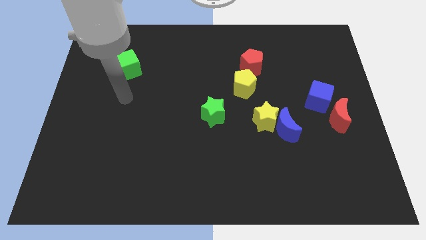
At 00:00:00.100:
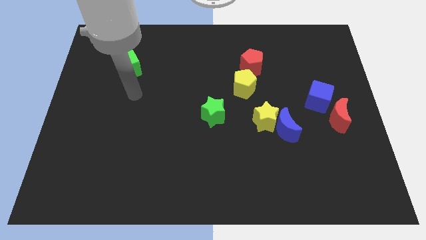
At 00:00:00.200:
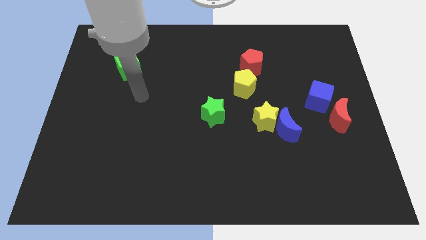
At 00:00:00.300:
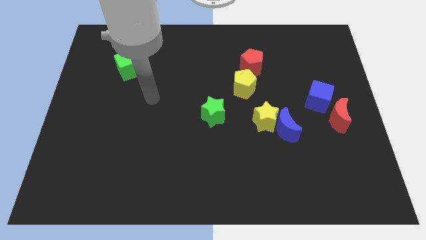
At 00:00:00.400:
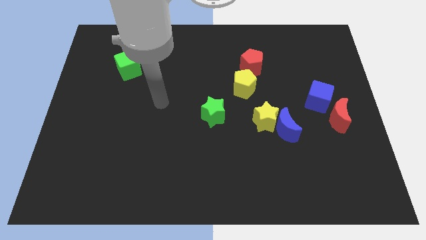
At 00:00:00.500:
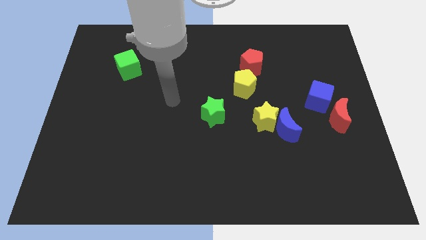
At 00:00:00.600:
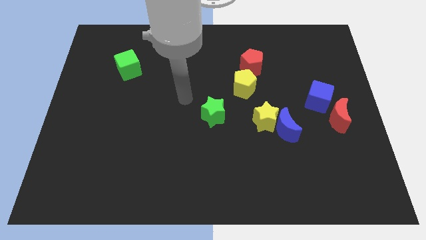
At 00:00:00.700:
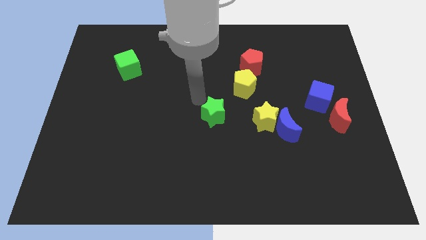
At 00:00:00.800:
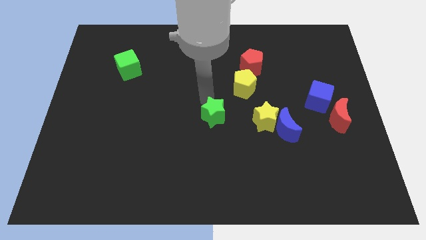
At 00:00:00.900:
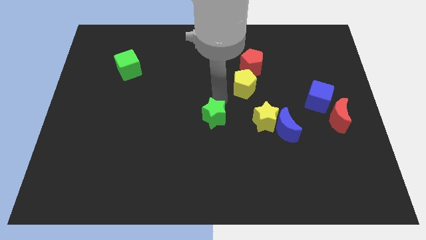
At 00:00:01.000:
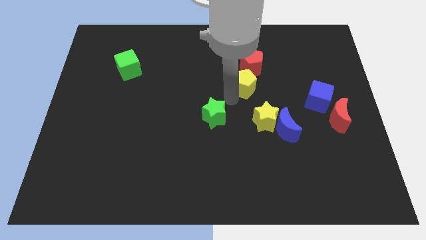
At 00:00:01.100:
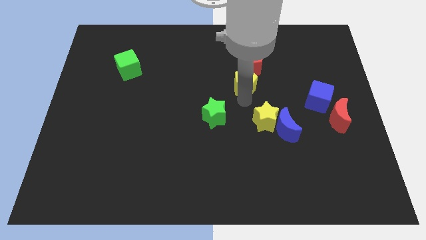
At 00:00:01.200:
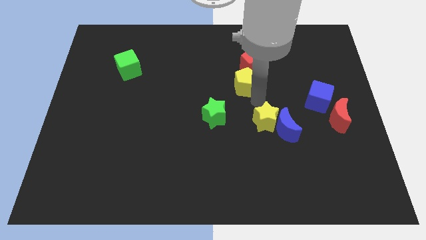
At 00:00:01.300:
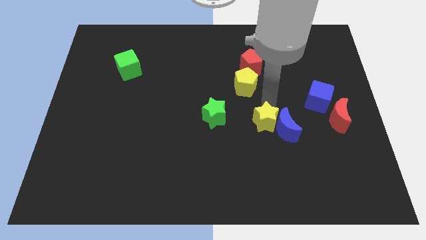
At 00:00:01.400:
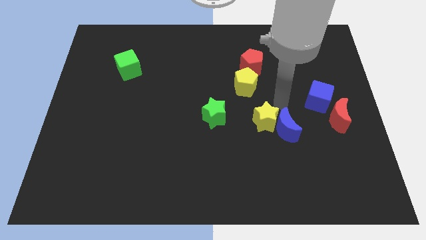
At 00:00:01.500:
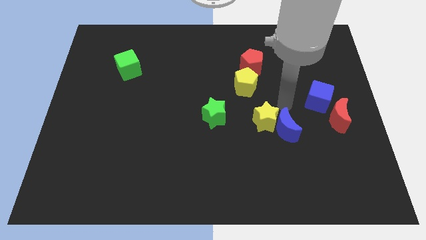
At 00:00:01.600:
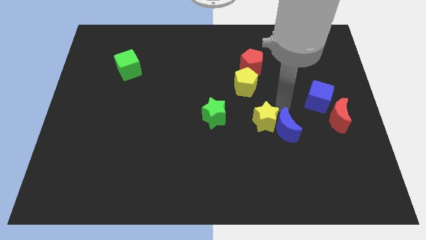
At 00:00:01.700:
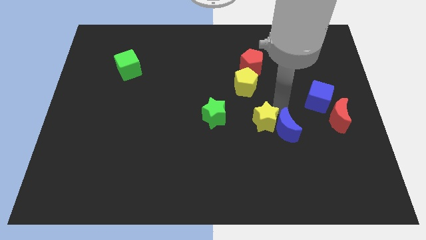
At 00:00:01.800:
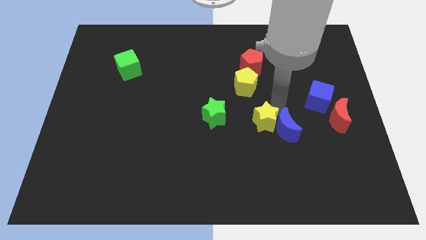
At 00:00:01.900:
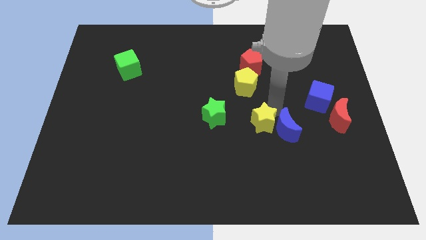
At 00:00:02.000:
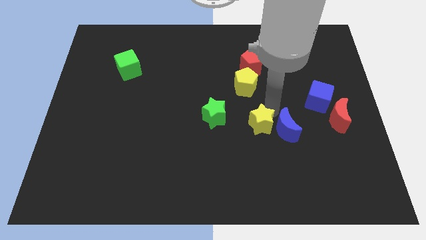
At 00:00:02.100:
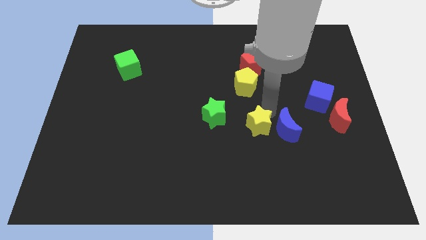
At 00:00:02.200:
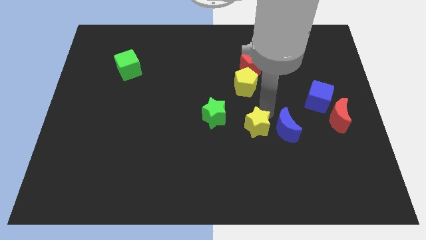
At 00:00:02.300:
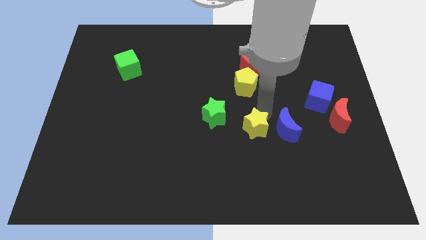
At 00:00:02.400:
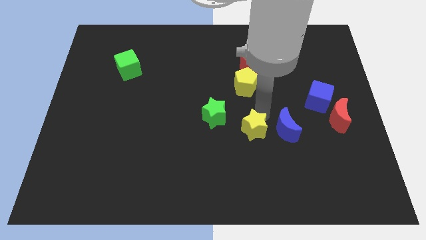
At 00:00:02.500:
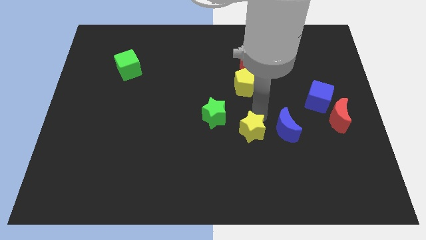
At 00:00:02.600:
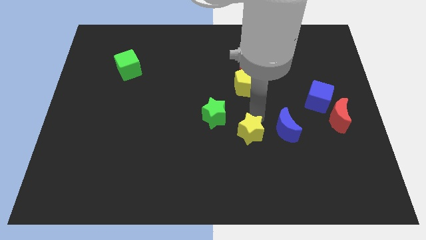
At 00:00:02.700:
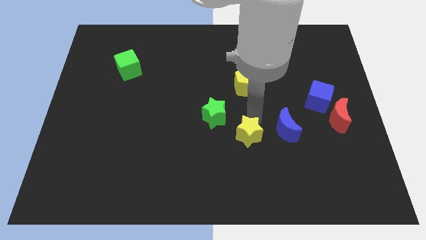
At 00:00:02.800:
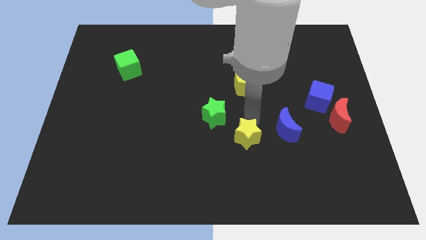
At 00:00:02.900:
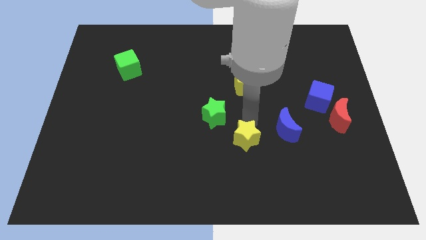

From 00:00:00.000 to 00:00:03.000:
slightly push the yellow star downwards and left diagonally

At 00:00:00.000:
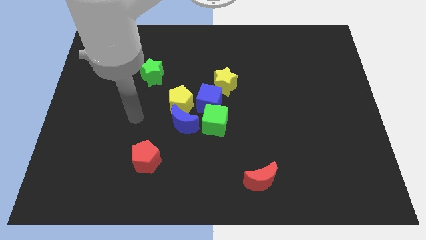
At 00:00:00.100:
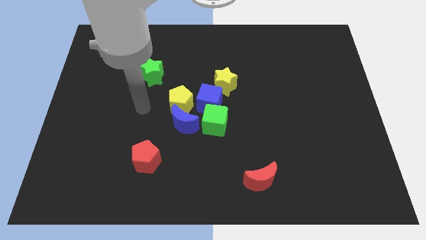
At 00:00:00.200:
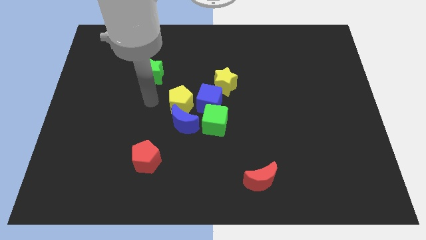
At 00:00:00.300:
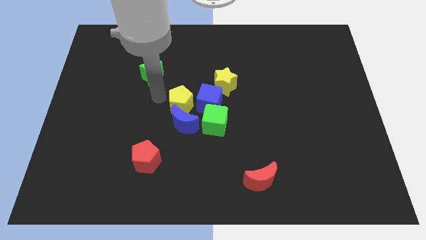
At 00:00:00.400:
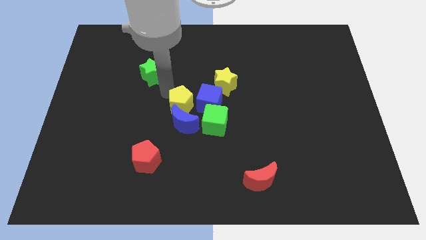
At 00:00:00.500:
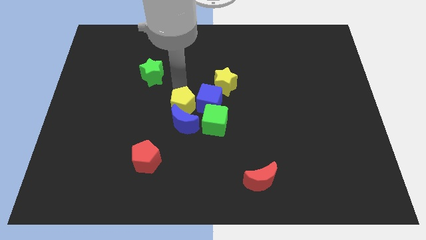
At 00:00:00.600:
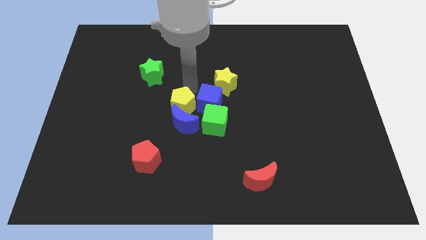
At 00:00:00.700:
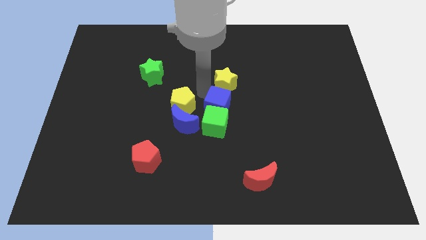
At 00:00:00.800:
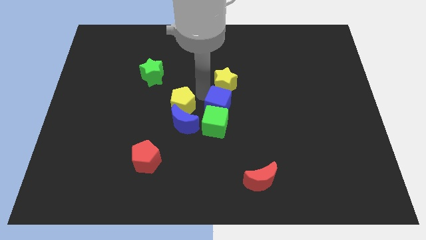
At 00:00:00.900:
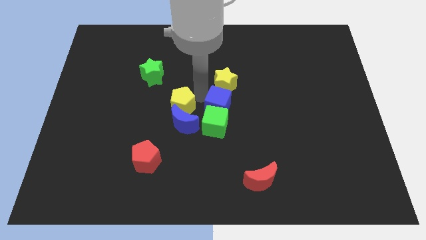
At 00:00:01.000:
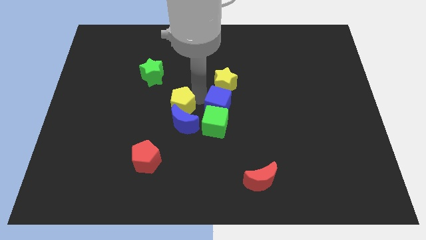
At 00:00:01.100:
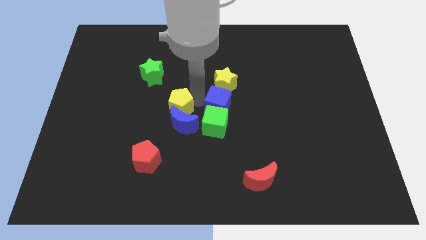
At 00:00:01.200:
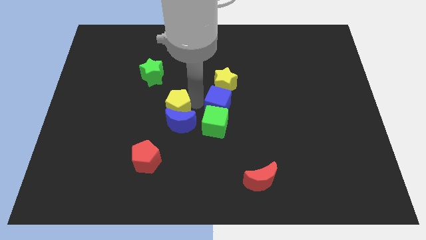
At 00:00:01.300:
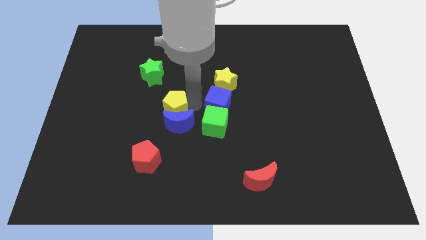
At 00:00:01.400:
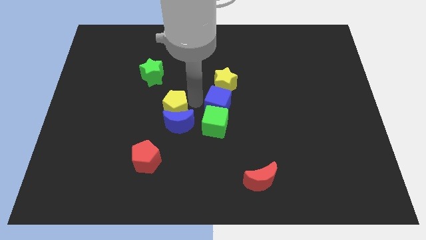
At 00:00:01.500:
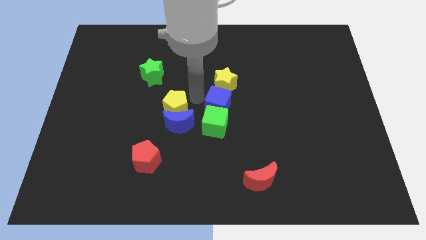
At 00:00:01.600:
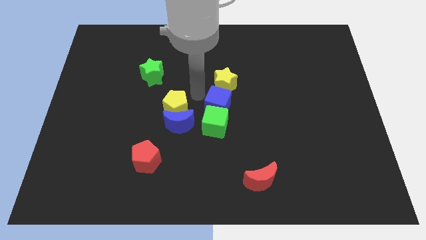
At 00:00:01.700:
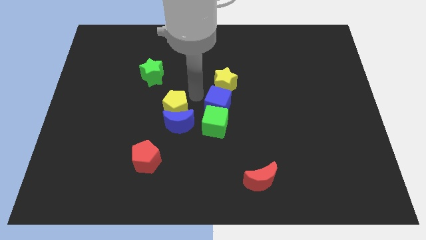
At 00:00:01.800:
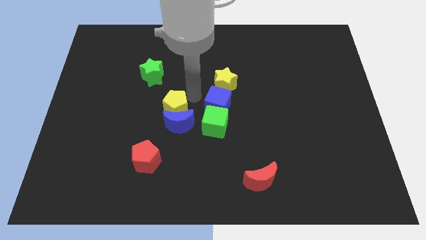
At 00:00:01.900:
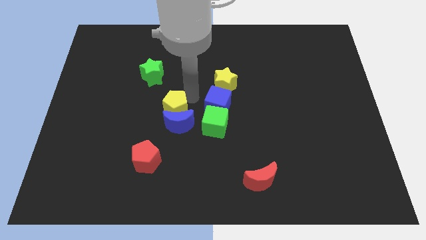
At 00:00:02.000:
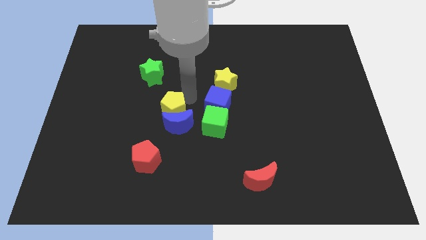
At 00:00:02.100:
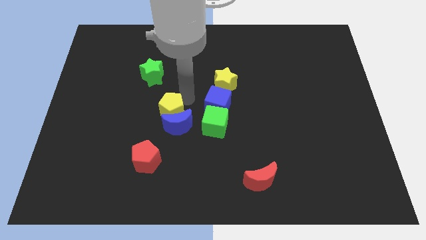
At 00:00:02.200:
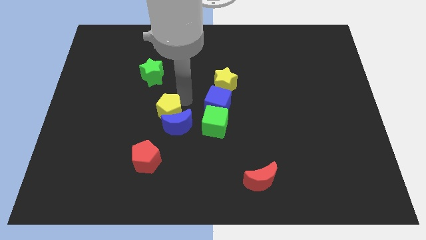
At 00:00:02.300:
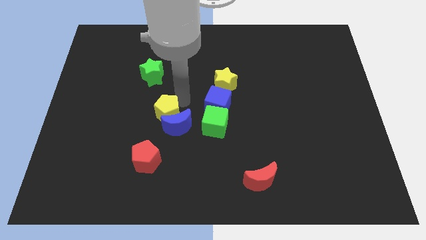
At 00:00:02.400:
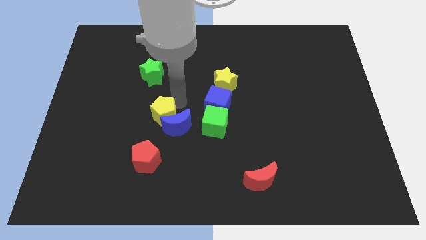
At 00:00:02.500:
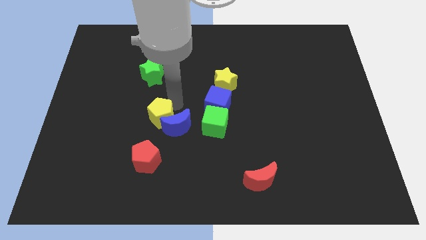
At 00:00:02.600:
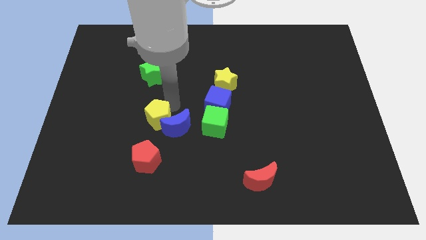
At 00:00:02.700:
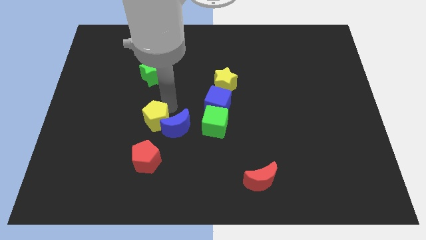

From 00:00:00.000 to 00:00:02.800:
push the yellow pentagon downwards and to the left somewhat

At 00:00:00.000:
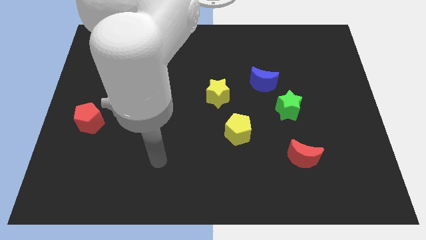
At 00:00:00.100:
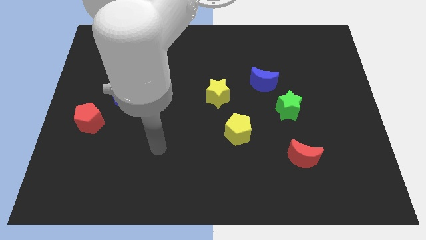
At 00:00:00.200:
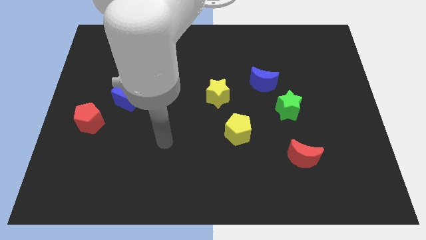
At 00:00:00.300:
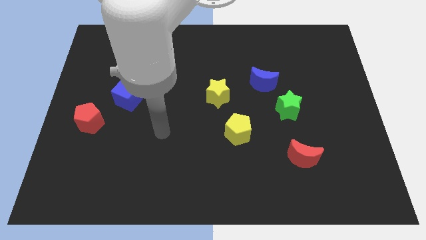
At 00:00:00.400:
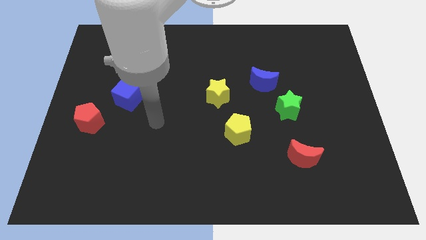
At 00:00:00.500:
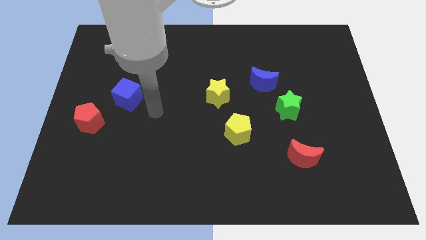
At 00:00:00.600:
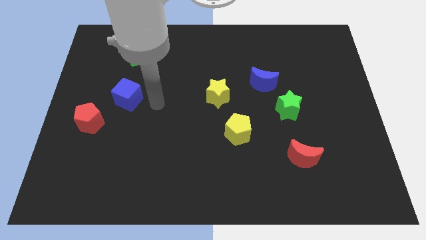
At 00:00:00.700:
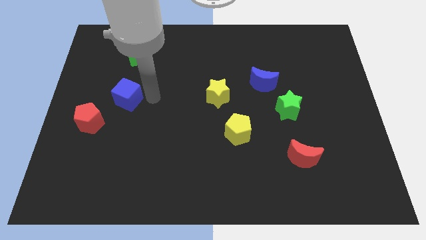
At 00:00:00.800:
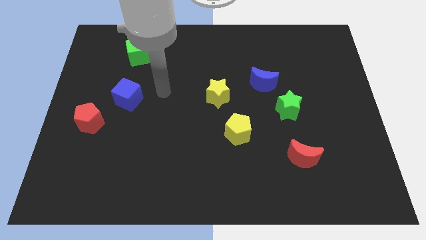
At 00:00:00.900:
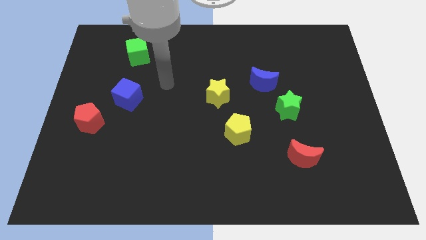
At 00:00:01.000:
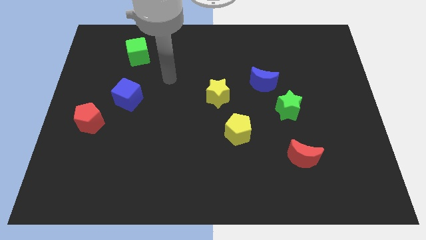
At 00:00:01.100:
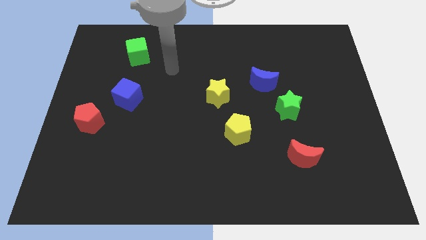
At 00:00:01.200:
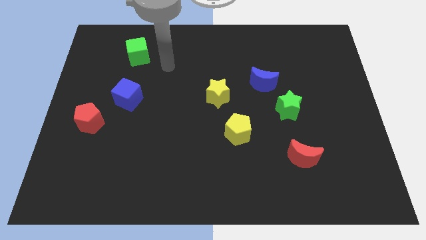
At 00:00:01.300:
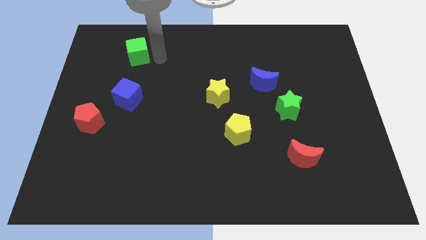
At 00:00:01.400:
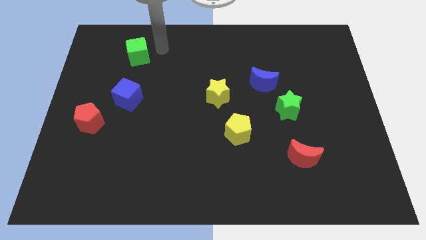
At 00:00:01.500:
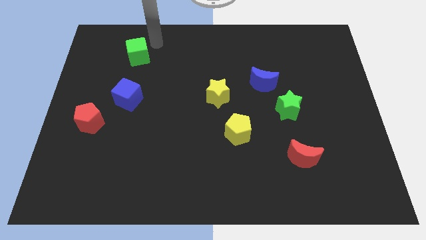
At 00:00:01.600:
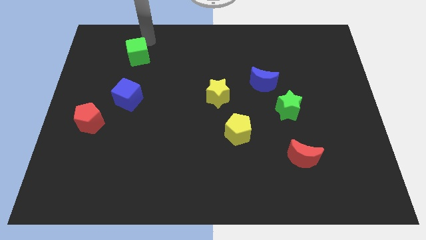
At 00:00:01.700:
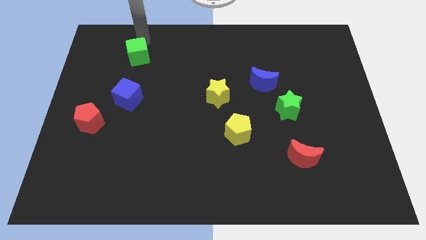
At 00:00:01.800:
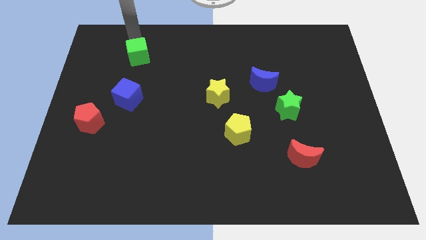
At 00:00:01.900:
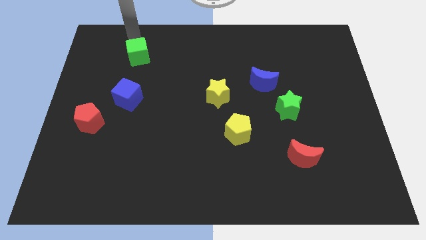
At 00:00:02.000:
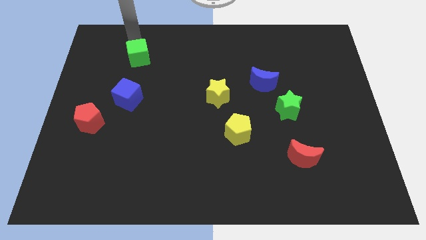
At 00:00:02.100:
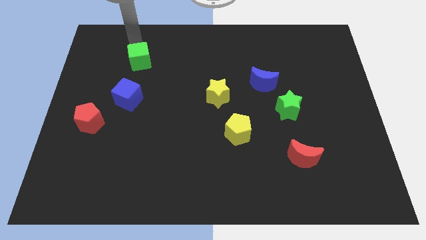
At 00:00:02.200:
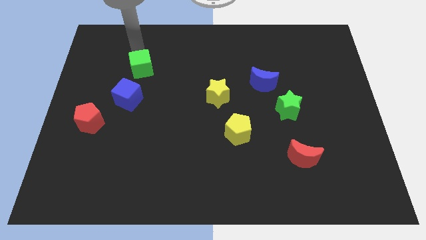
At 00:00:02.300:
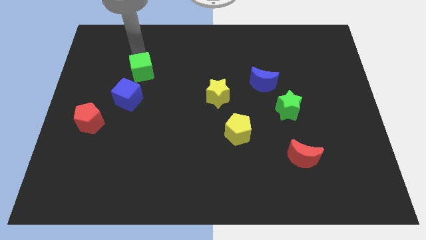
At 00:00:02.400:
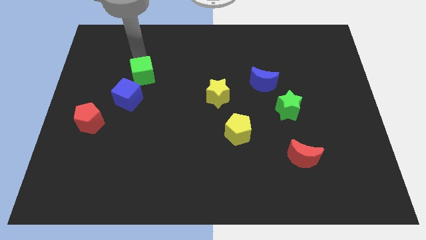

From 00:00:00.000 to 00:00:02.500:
slightly slide the green cube downwards
